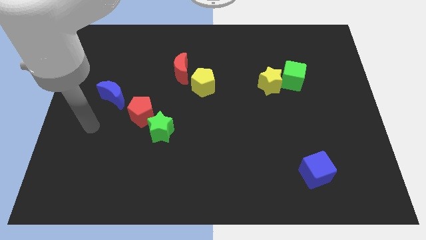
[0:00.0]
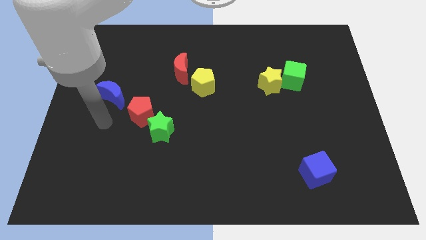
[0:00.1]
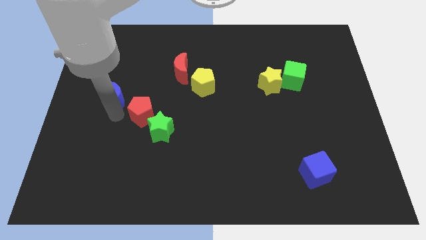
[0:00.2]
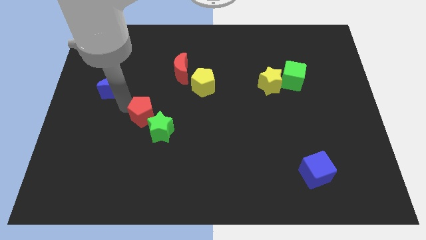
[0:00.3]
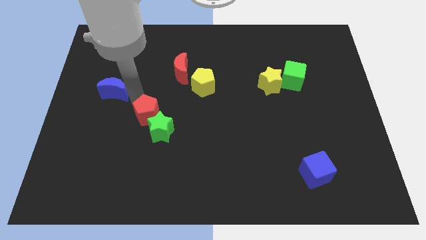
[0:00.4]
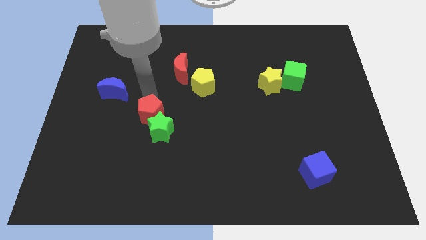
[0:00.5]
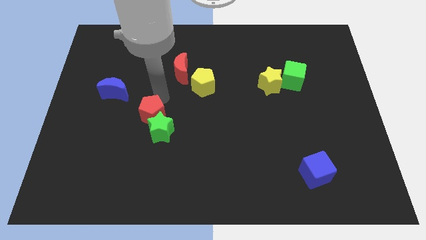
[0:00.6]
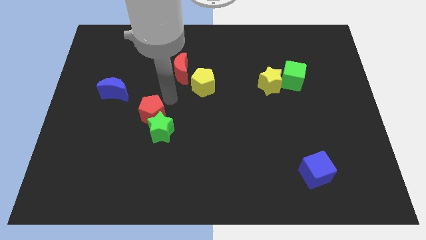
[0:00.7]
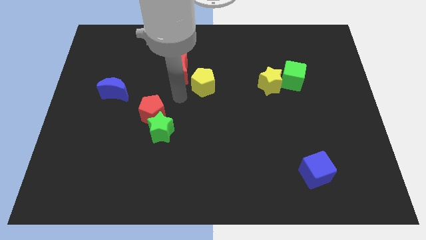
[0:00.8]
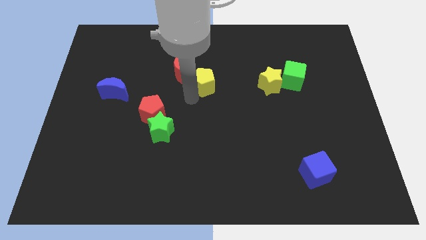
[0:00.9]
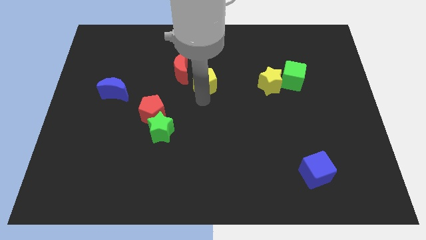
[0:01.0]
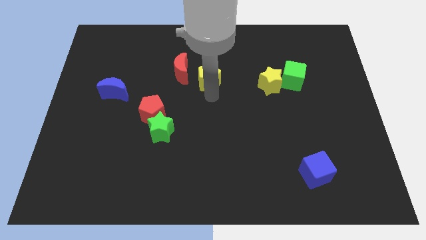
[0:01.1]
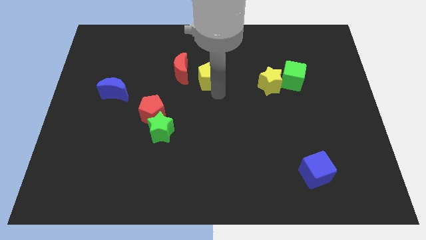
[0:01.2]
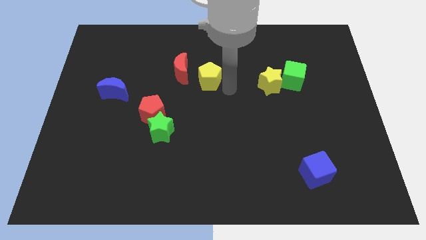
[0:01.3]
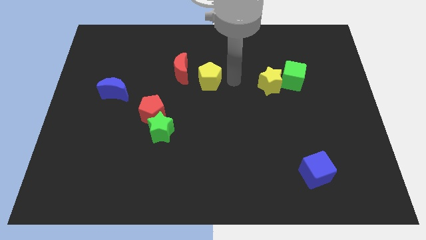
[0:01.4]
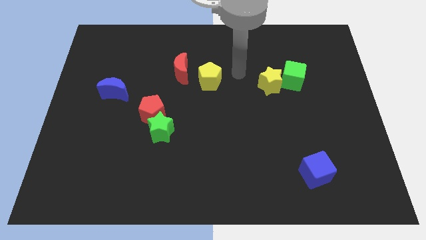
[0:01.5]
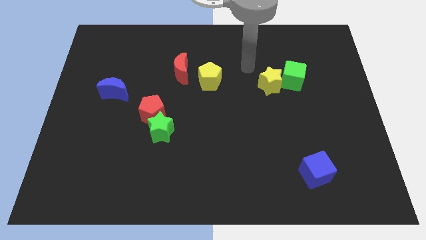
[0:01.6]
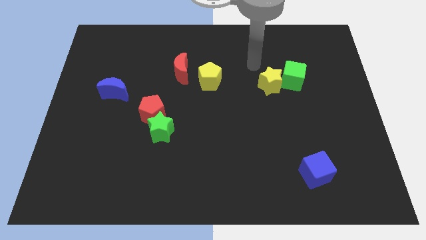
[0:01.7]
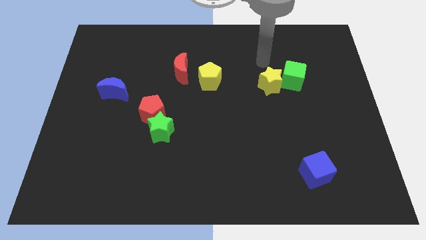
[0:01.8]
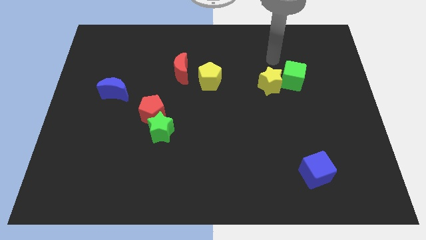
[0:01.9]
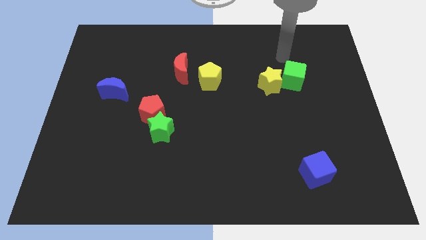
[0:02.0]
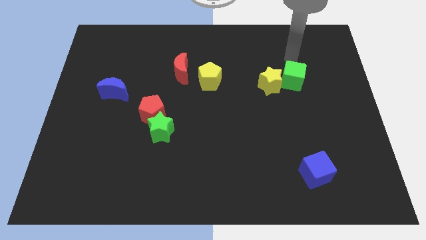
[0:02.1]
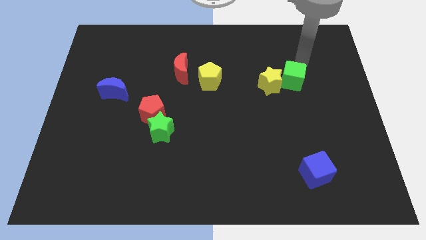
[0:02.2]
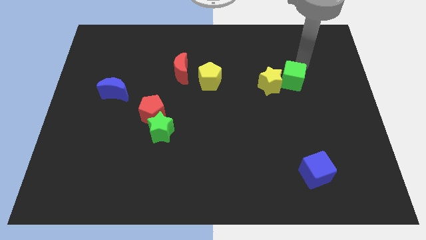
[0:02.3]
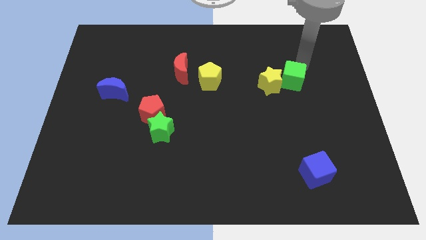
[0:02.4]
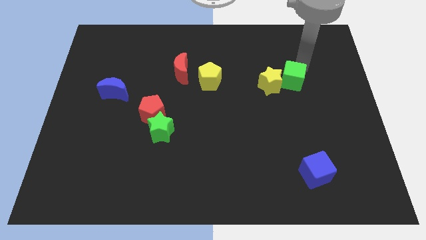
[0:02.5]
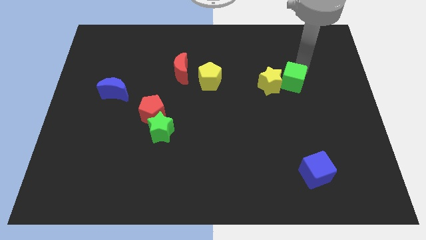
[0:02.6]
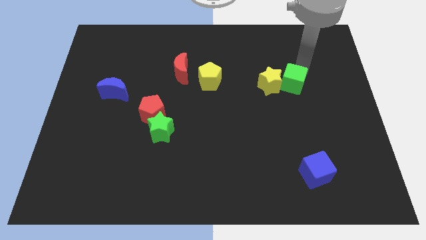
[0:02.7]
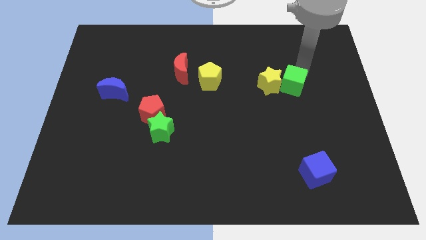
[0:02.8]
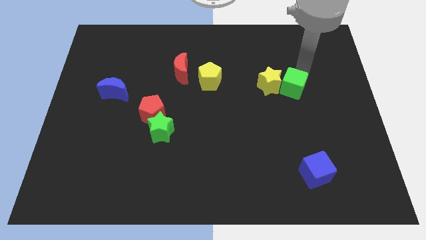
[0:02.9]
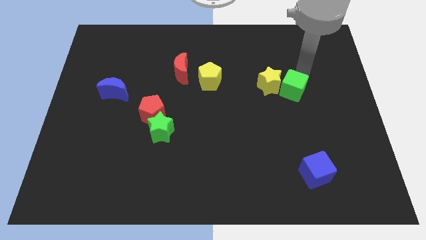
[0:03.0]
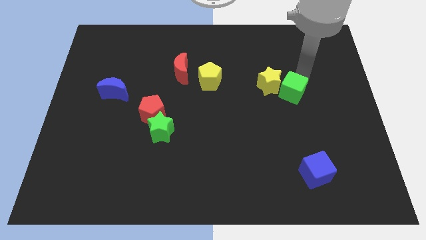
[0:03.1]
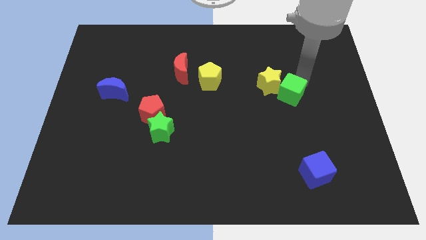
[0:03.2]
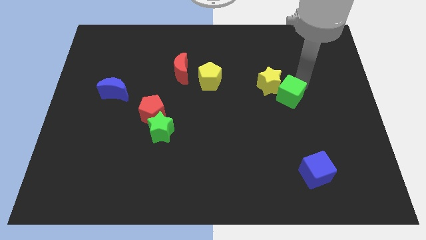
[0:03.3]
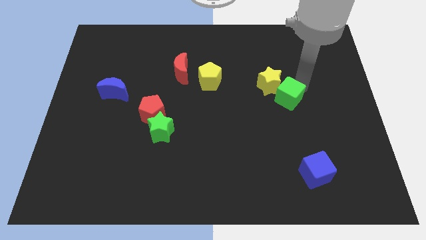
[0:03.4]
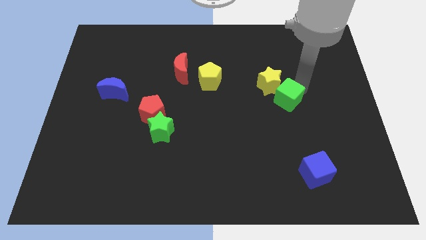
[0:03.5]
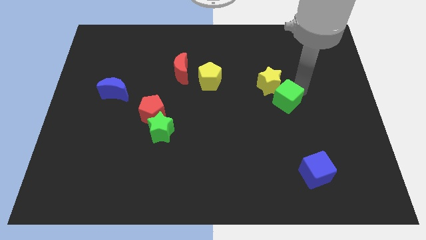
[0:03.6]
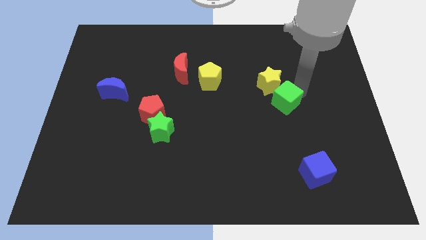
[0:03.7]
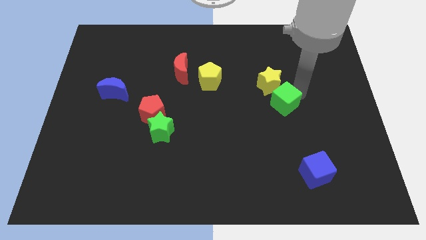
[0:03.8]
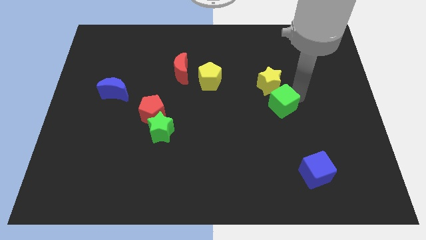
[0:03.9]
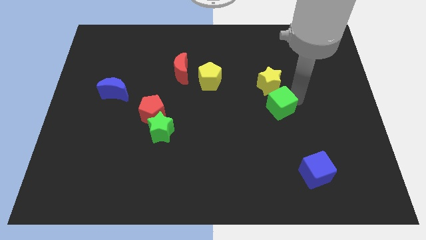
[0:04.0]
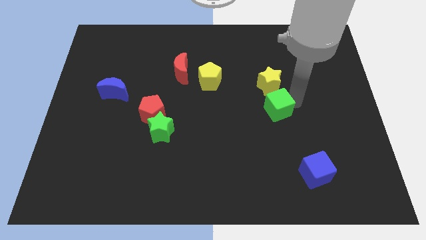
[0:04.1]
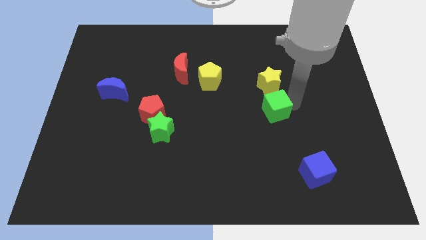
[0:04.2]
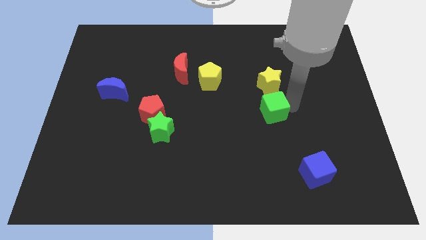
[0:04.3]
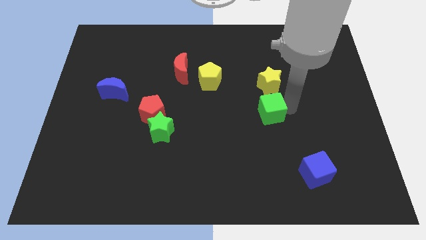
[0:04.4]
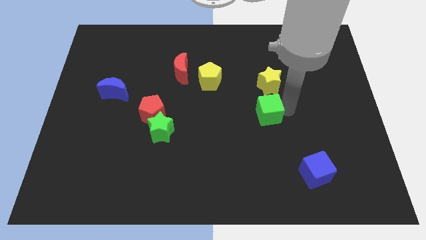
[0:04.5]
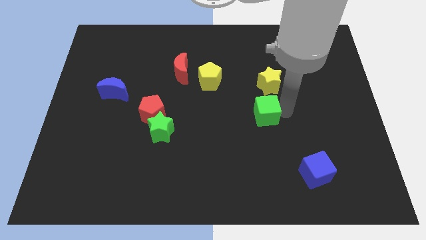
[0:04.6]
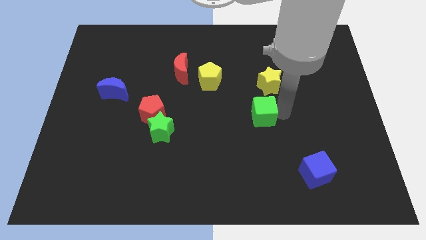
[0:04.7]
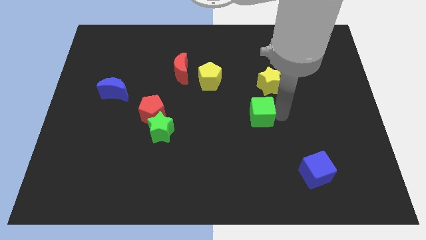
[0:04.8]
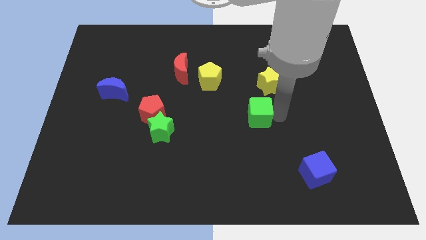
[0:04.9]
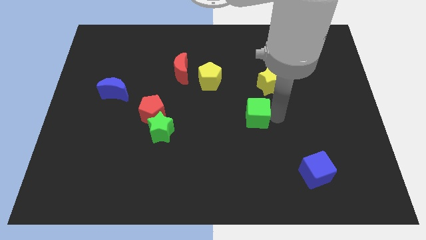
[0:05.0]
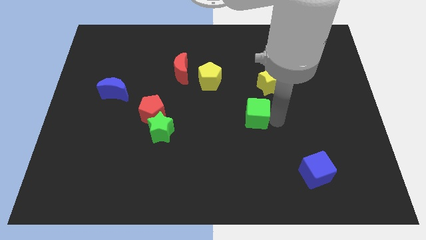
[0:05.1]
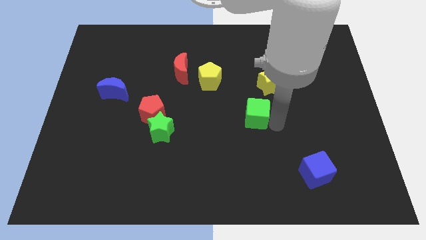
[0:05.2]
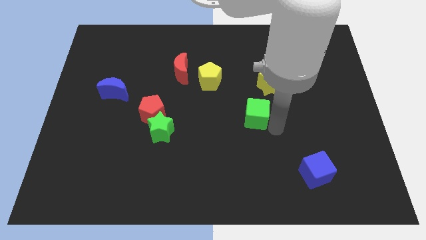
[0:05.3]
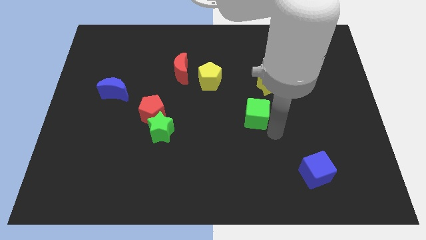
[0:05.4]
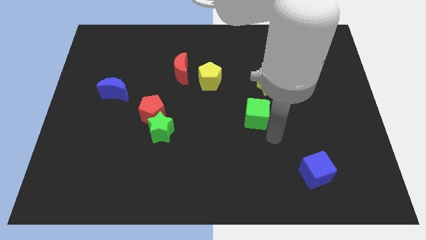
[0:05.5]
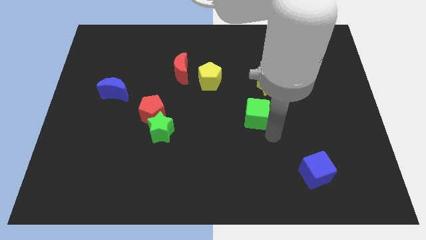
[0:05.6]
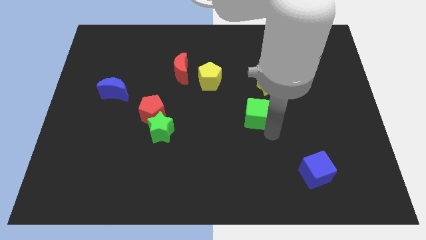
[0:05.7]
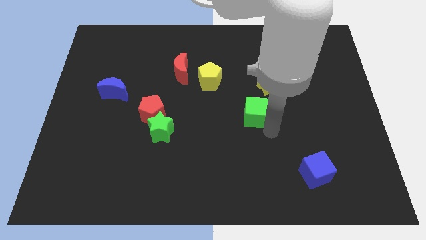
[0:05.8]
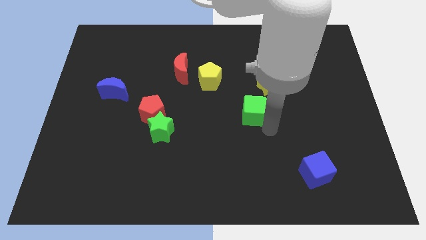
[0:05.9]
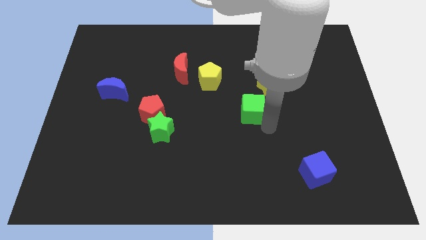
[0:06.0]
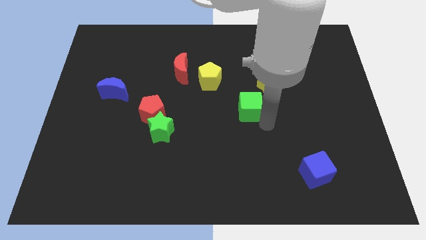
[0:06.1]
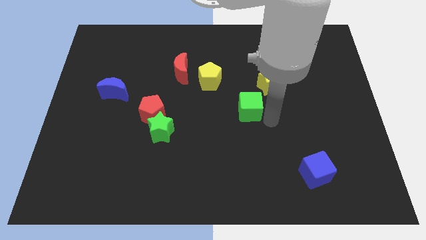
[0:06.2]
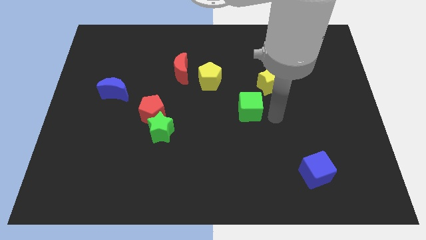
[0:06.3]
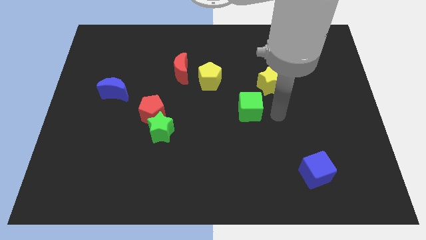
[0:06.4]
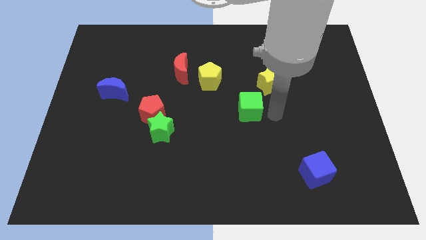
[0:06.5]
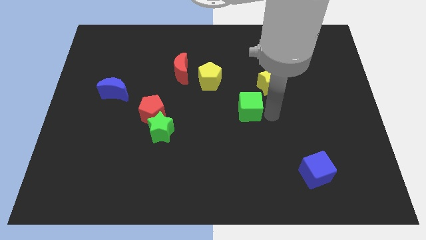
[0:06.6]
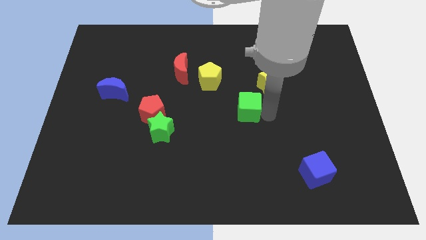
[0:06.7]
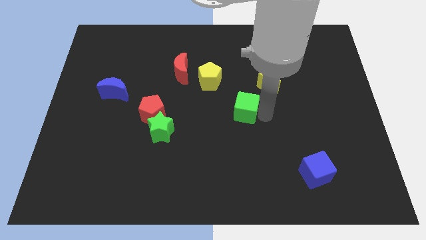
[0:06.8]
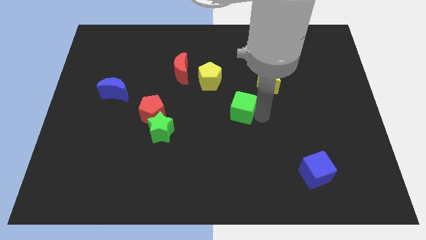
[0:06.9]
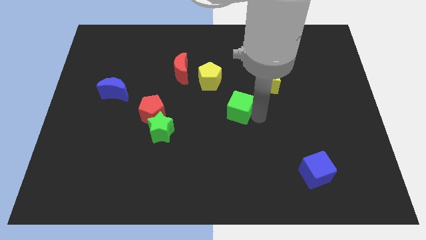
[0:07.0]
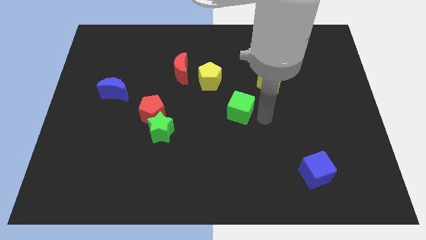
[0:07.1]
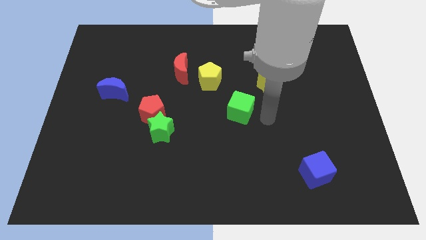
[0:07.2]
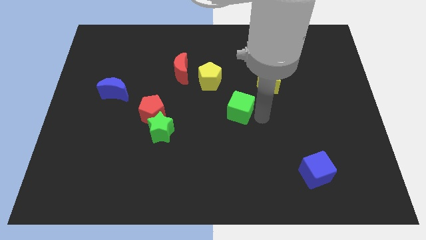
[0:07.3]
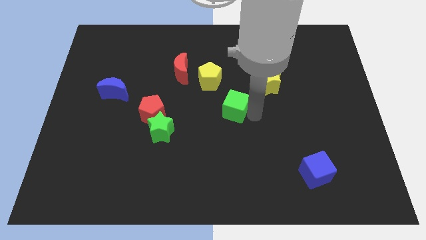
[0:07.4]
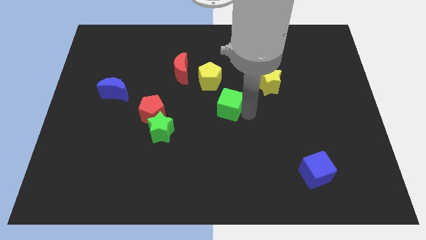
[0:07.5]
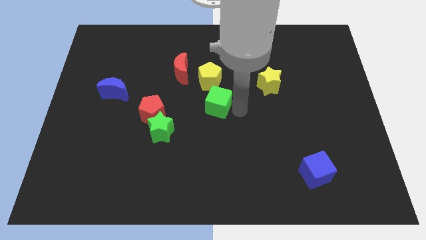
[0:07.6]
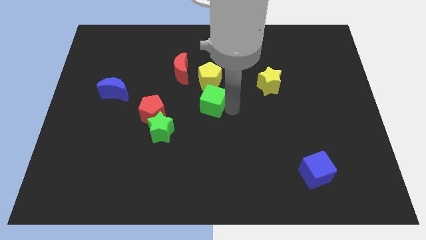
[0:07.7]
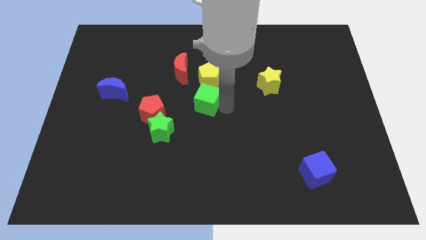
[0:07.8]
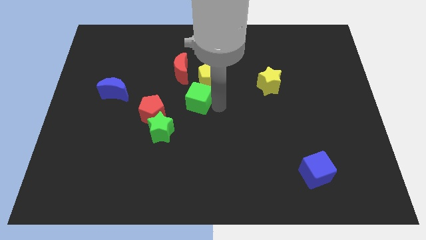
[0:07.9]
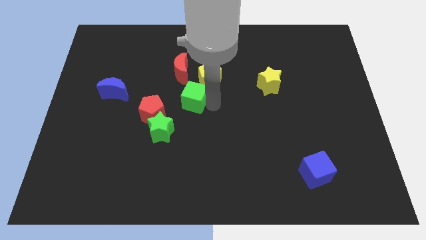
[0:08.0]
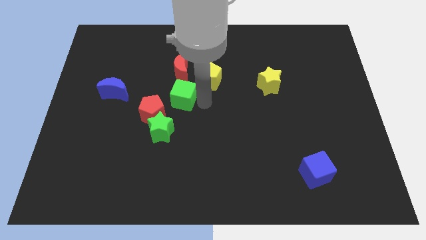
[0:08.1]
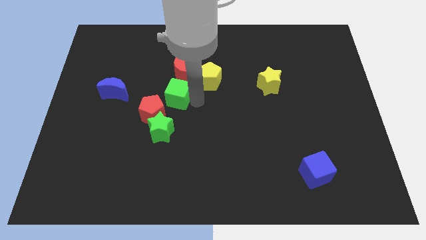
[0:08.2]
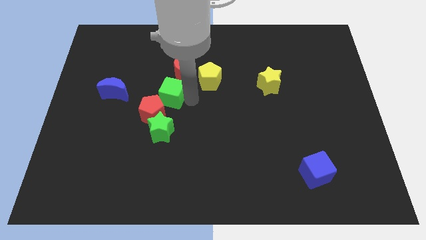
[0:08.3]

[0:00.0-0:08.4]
push the green cube to the top side of the red pentagon
